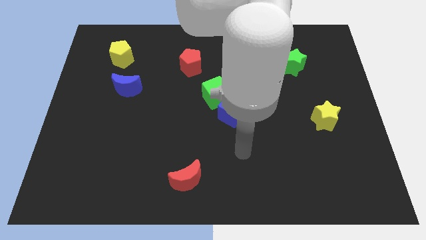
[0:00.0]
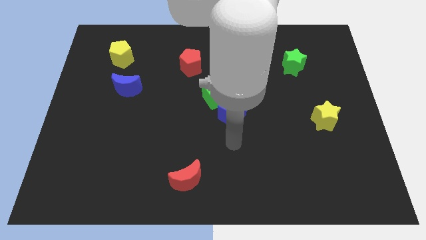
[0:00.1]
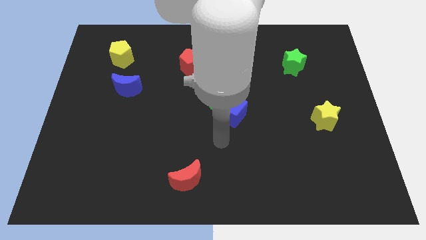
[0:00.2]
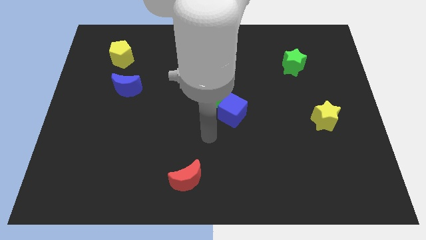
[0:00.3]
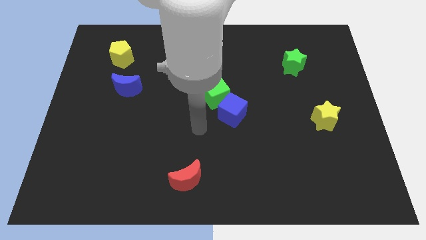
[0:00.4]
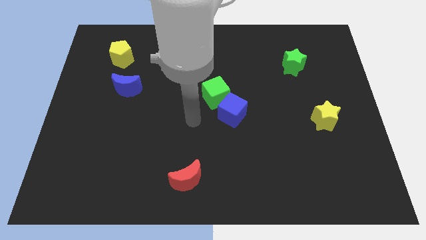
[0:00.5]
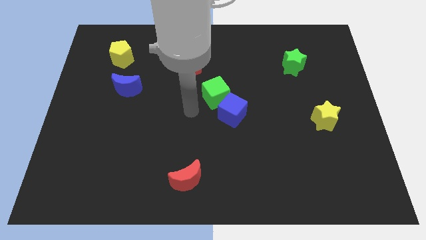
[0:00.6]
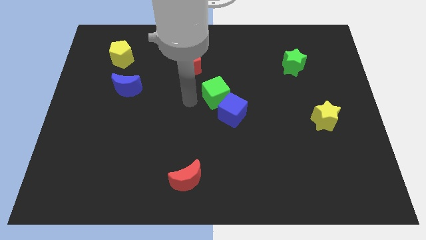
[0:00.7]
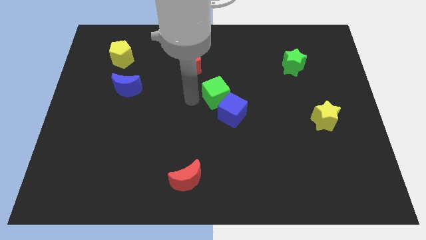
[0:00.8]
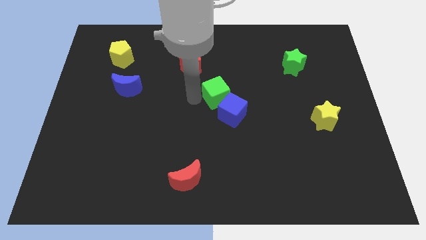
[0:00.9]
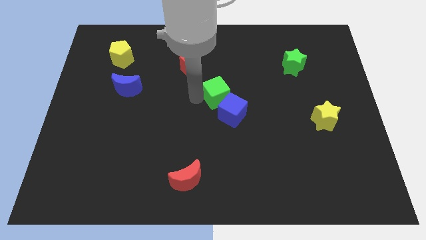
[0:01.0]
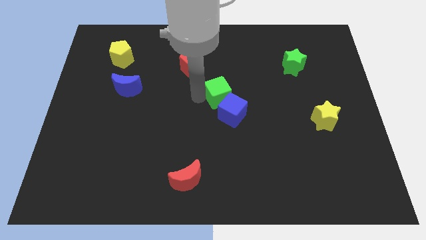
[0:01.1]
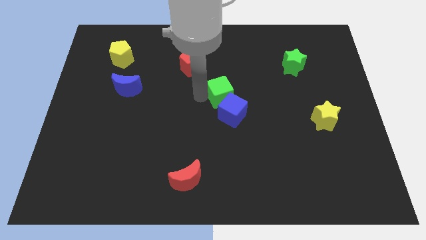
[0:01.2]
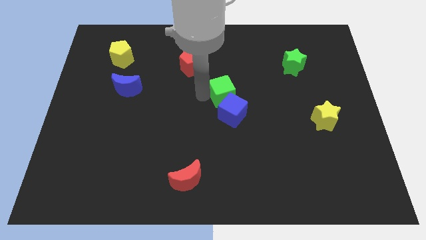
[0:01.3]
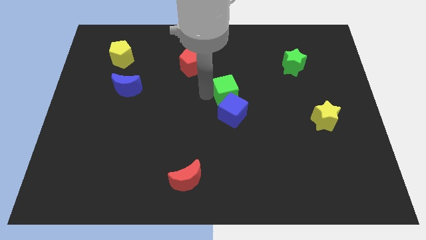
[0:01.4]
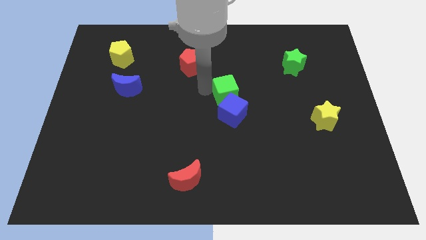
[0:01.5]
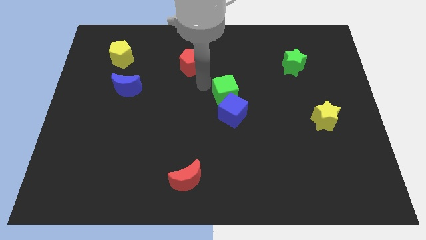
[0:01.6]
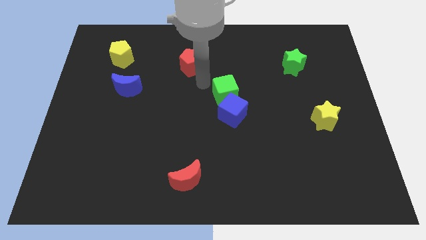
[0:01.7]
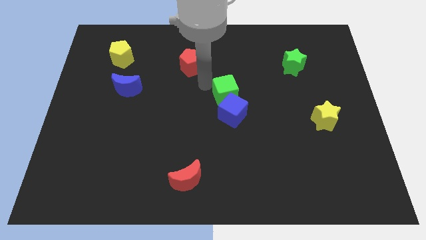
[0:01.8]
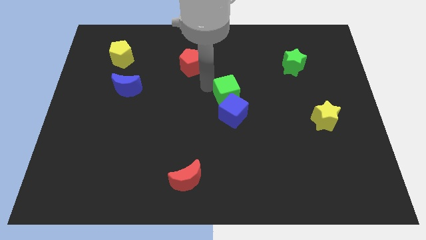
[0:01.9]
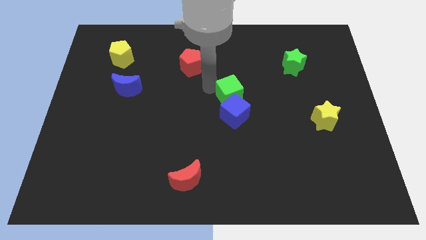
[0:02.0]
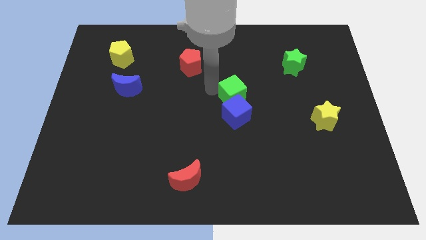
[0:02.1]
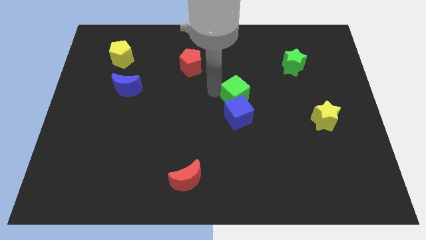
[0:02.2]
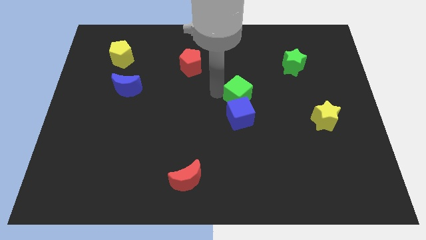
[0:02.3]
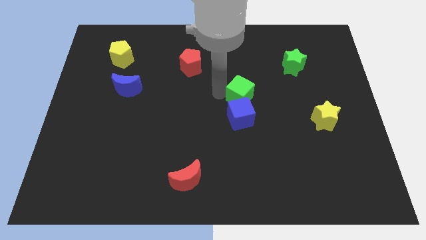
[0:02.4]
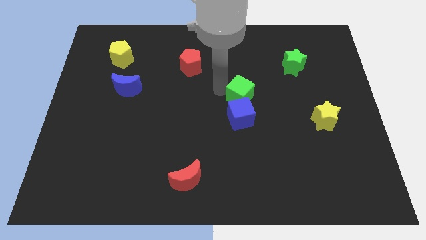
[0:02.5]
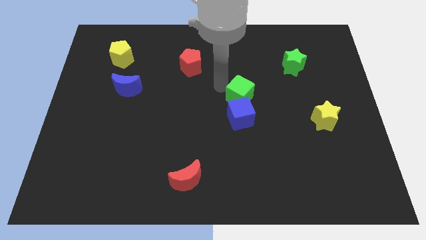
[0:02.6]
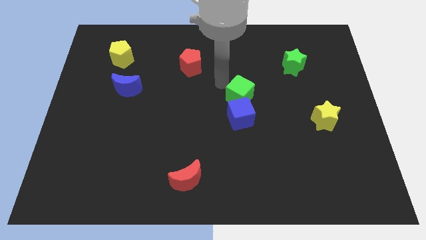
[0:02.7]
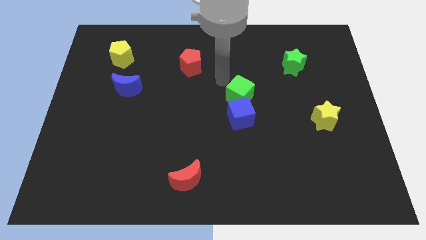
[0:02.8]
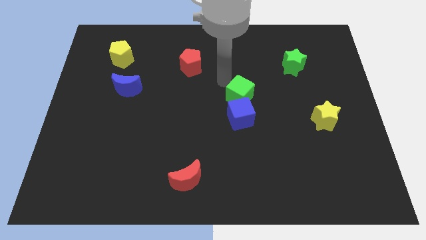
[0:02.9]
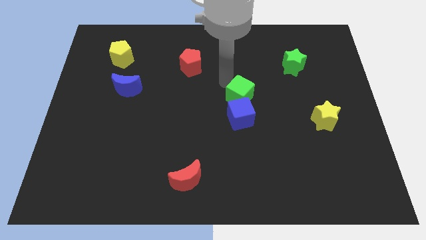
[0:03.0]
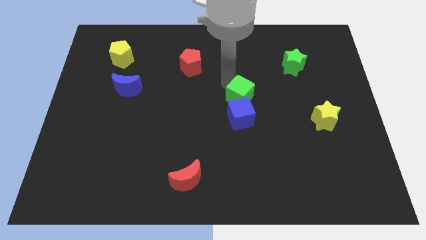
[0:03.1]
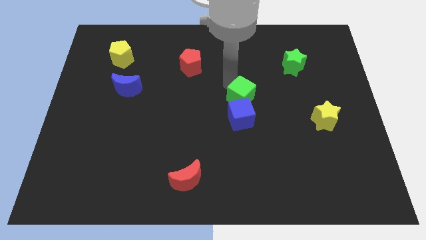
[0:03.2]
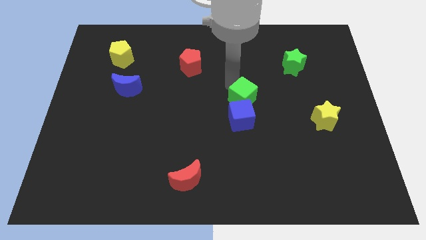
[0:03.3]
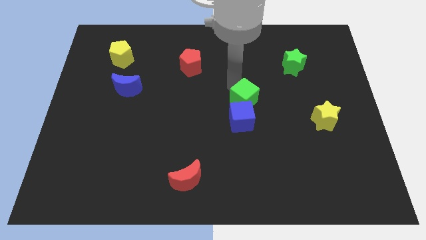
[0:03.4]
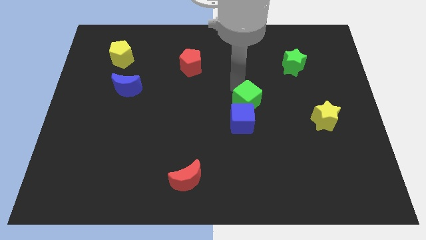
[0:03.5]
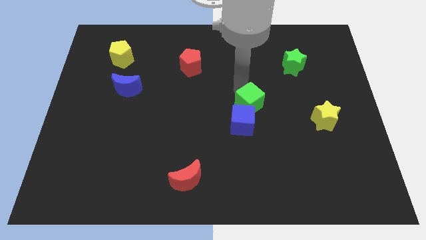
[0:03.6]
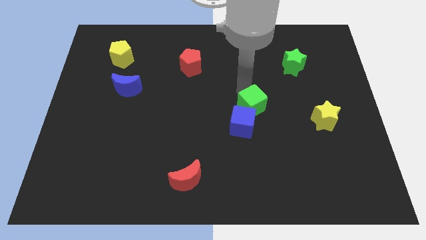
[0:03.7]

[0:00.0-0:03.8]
slide the green cube somewhat downwards and then right

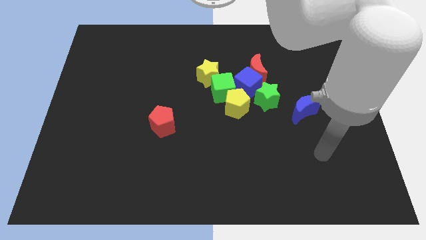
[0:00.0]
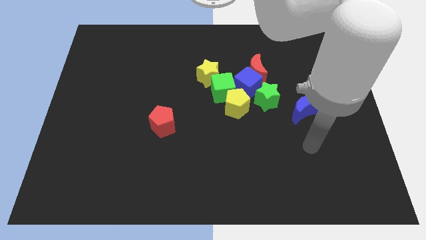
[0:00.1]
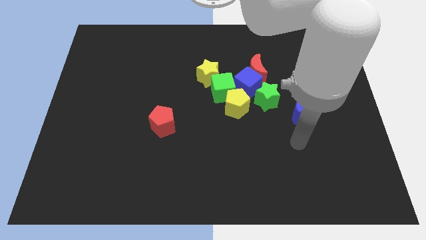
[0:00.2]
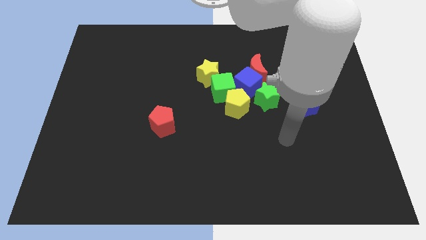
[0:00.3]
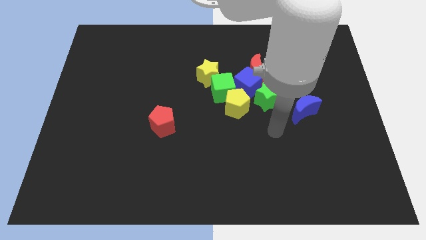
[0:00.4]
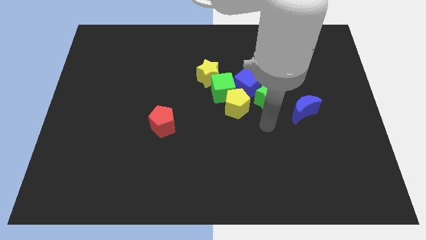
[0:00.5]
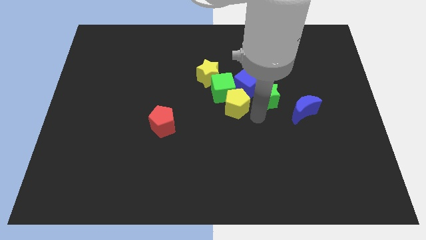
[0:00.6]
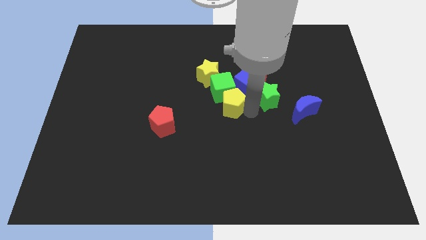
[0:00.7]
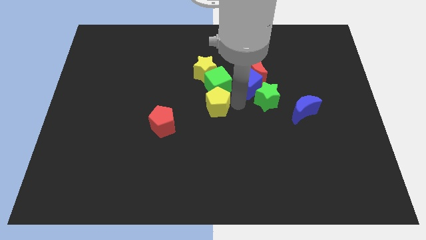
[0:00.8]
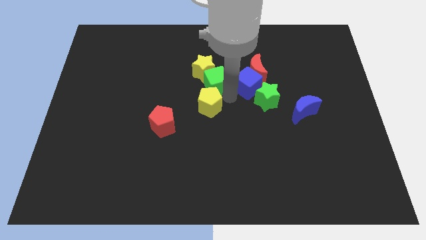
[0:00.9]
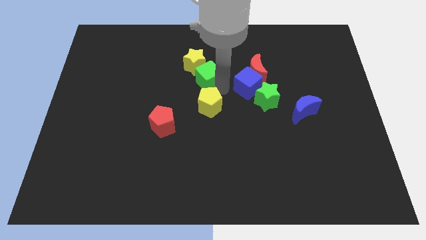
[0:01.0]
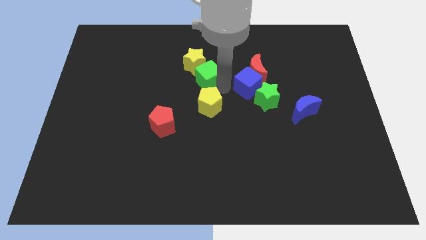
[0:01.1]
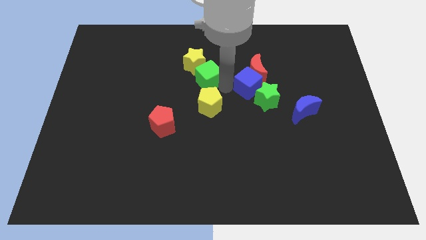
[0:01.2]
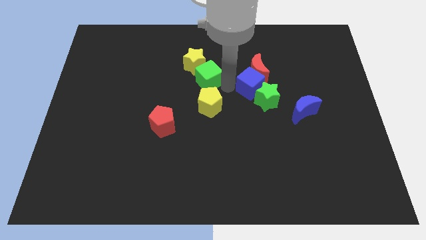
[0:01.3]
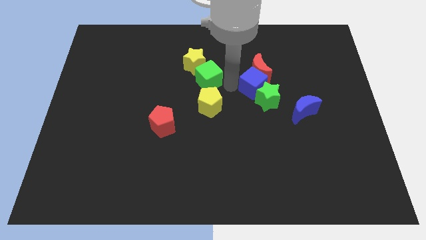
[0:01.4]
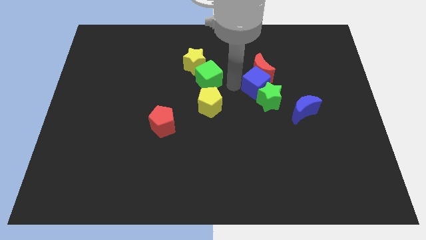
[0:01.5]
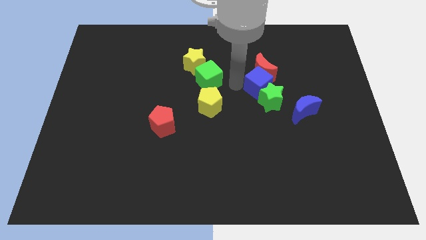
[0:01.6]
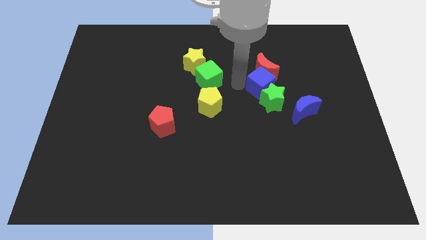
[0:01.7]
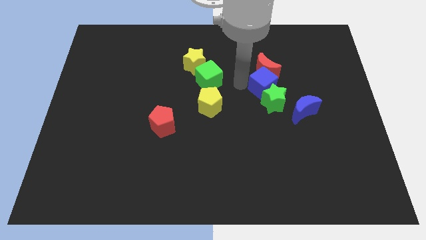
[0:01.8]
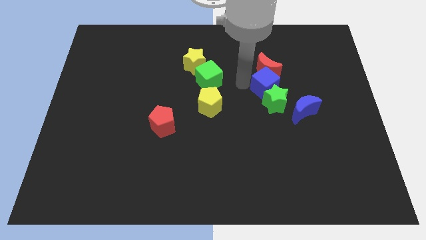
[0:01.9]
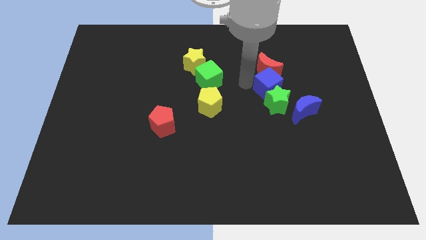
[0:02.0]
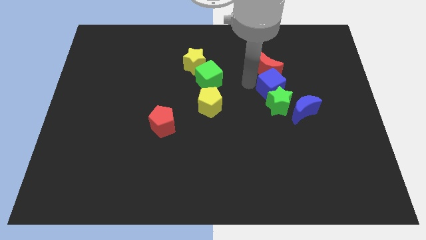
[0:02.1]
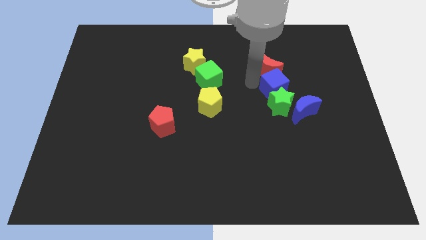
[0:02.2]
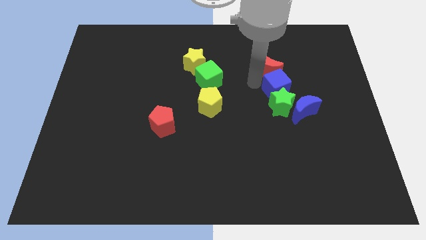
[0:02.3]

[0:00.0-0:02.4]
slightly move the blue cube right

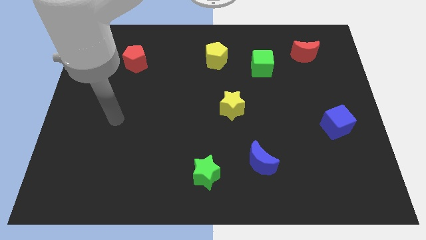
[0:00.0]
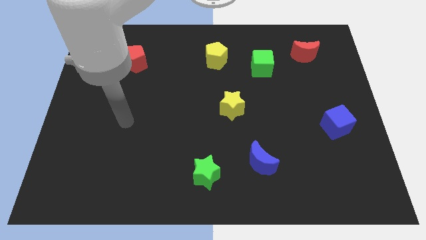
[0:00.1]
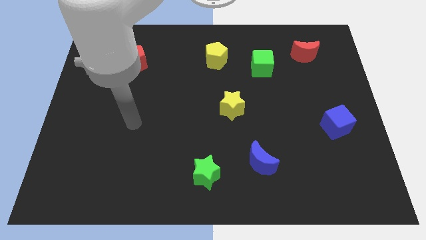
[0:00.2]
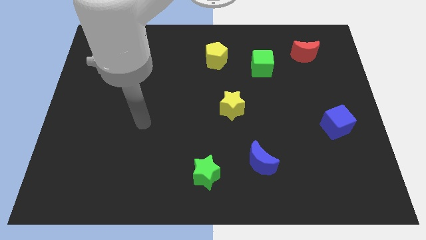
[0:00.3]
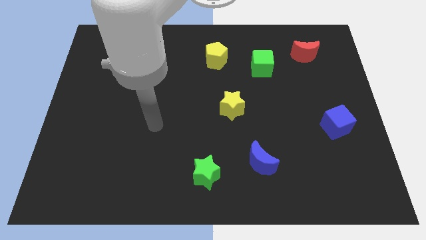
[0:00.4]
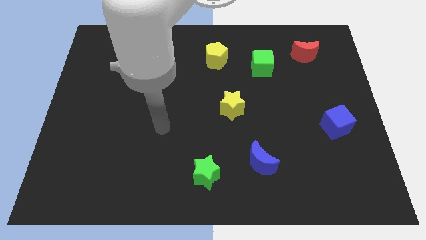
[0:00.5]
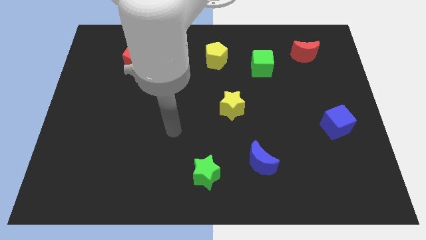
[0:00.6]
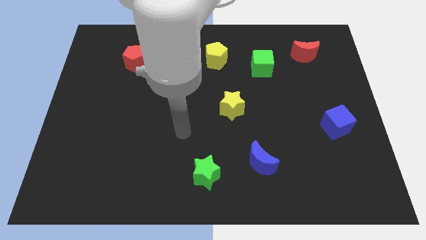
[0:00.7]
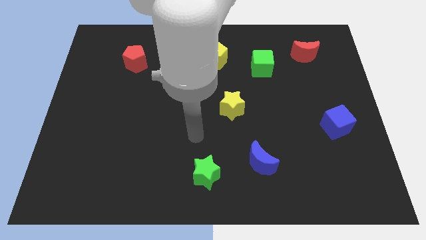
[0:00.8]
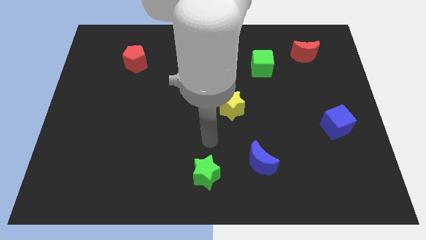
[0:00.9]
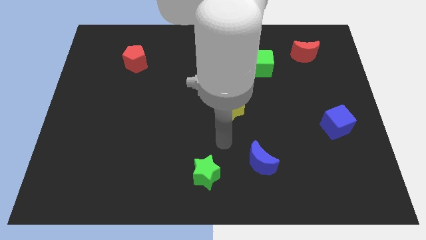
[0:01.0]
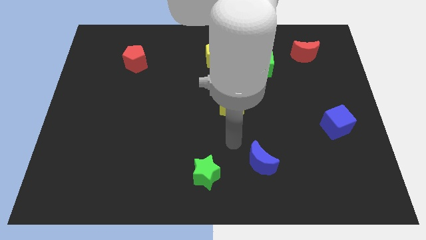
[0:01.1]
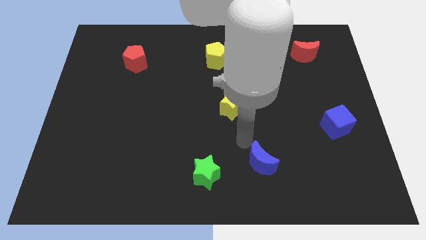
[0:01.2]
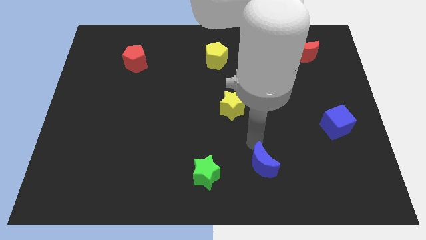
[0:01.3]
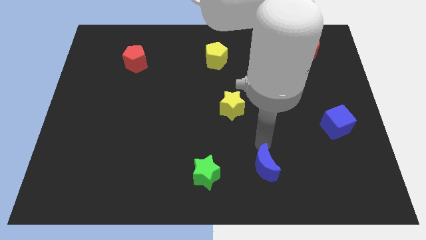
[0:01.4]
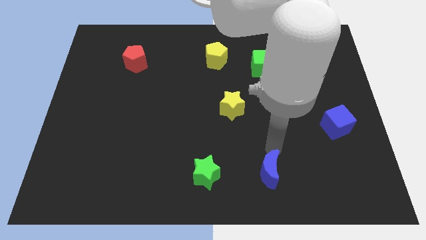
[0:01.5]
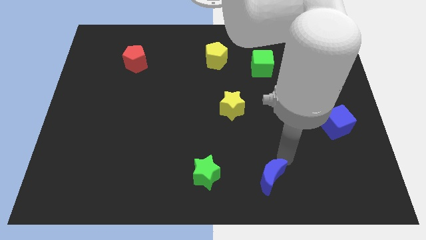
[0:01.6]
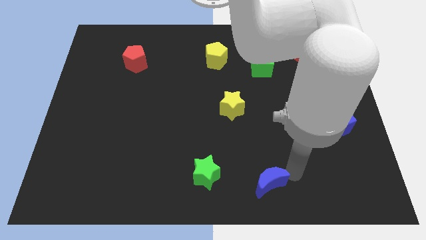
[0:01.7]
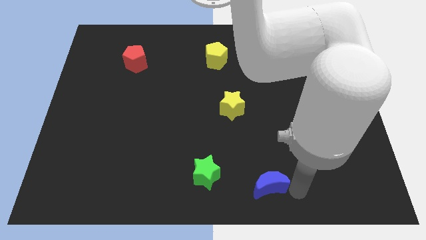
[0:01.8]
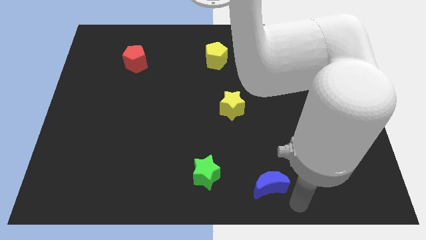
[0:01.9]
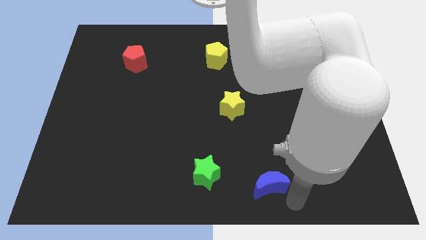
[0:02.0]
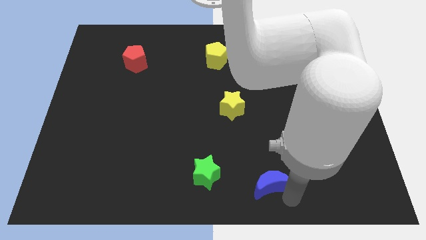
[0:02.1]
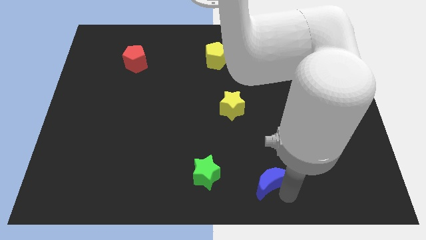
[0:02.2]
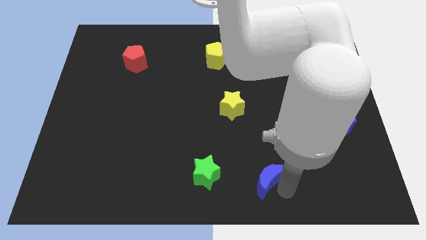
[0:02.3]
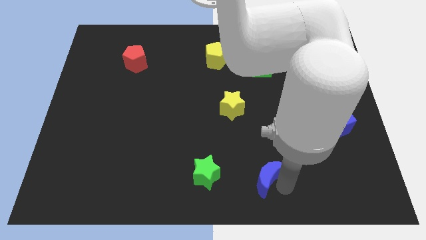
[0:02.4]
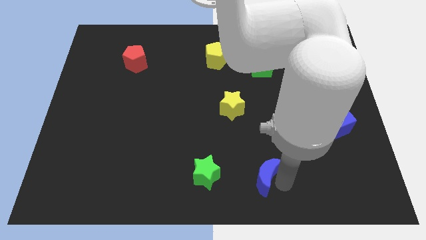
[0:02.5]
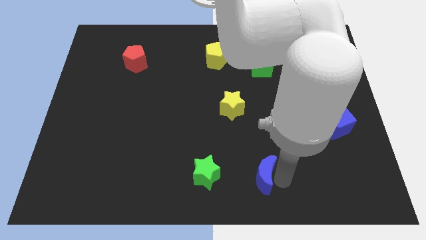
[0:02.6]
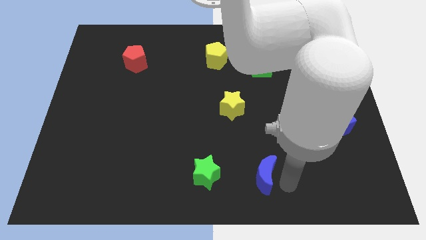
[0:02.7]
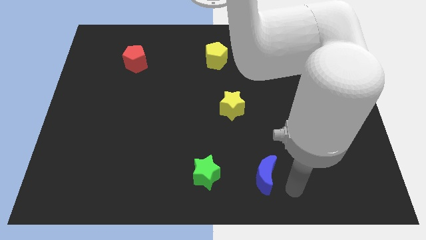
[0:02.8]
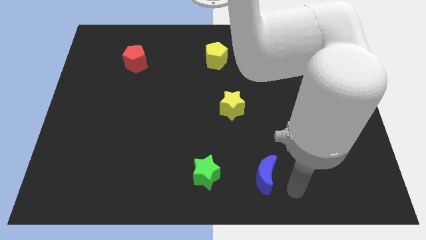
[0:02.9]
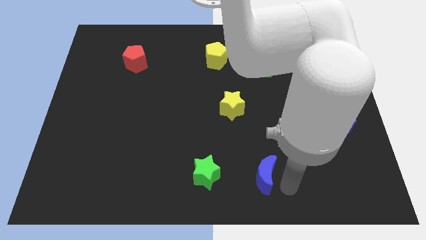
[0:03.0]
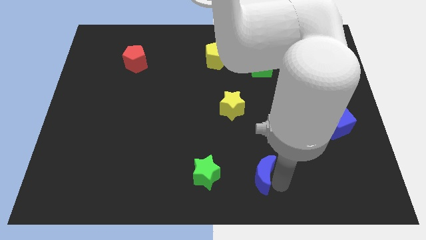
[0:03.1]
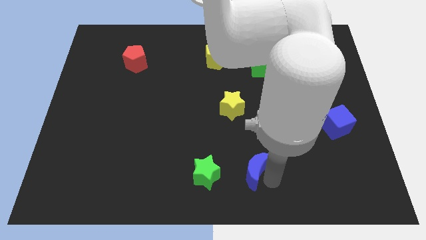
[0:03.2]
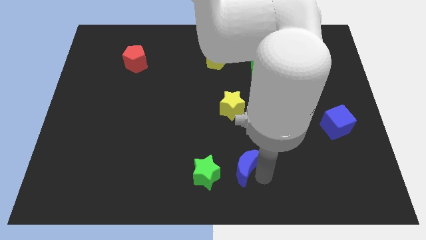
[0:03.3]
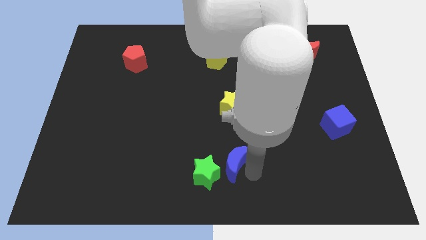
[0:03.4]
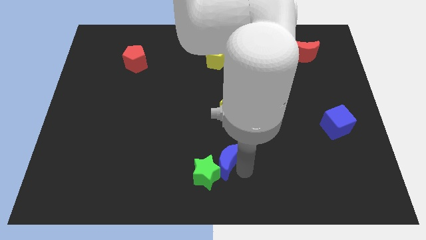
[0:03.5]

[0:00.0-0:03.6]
push the blue moon a little left
